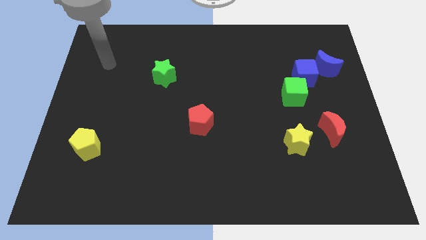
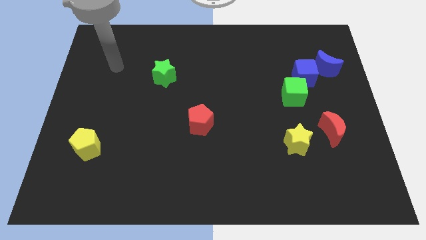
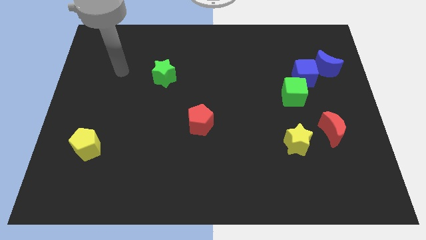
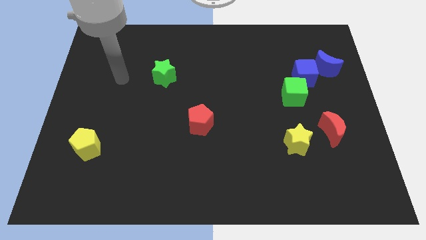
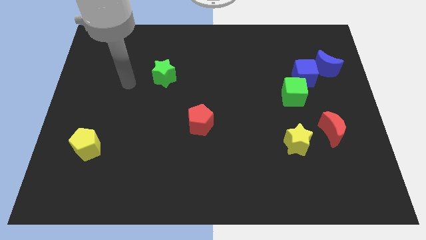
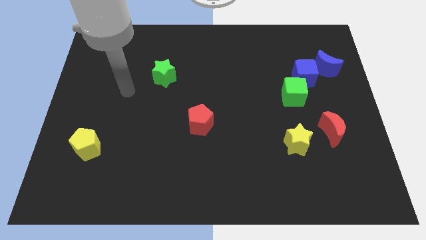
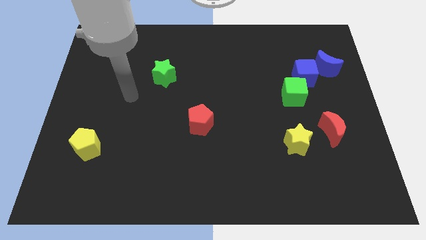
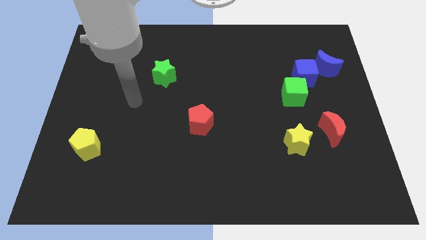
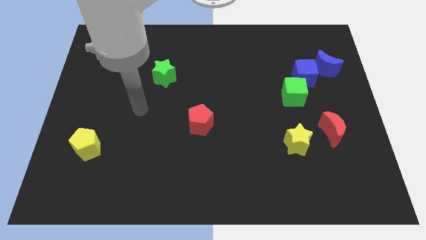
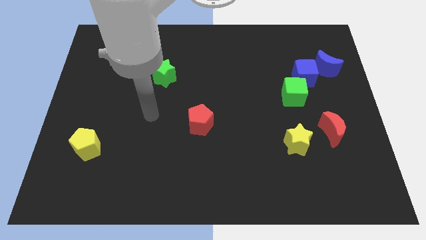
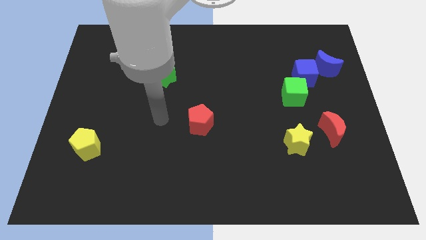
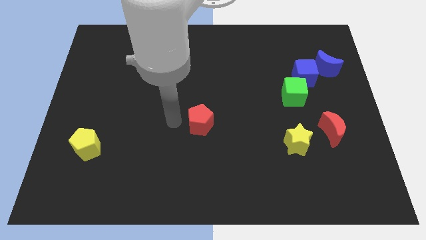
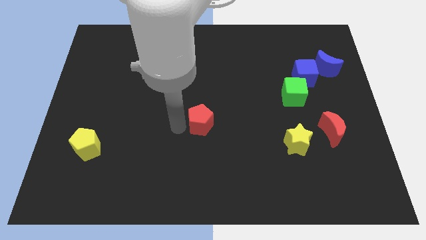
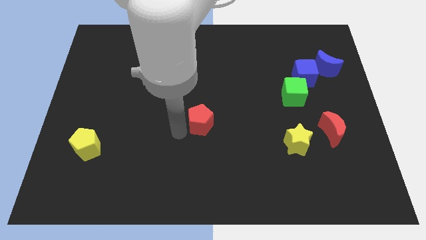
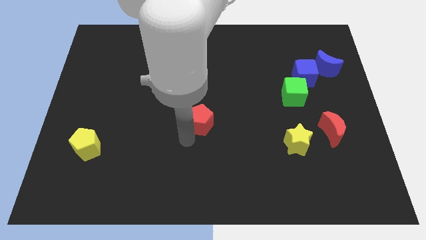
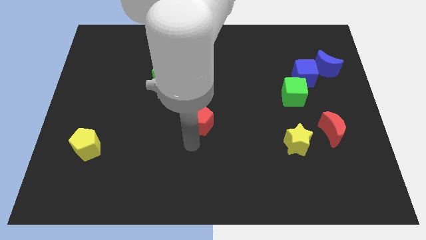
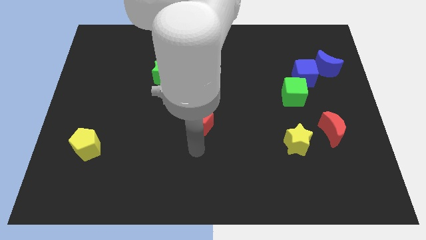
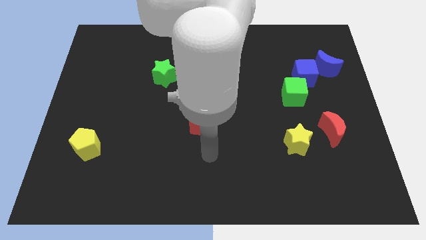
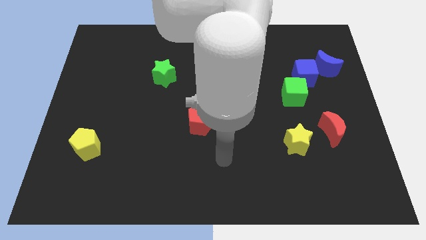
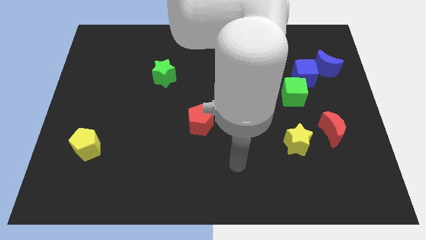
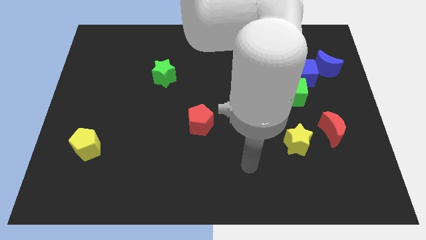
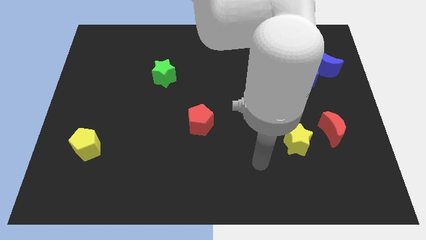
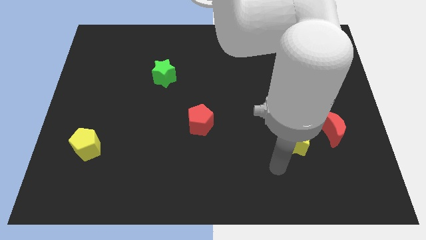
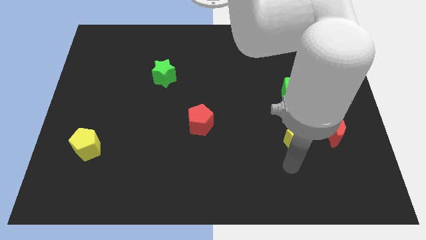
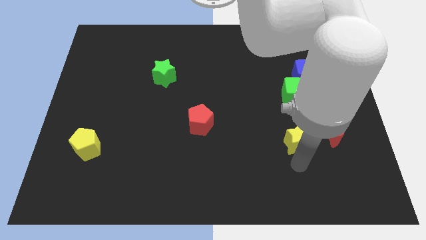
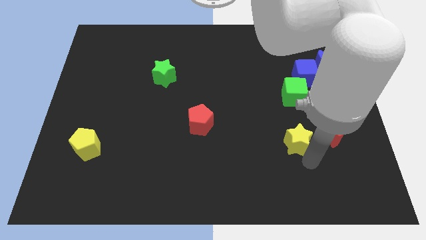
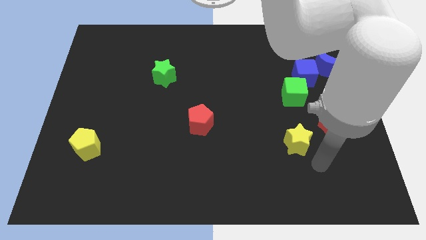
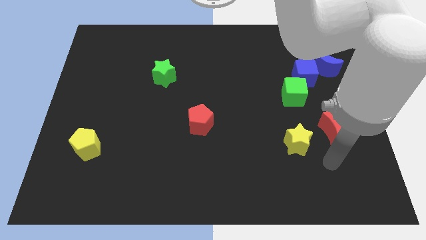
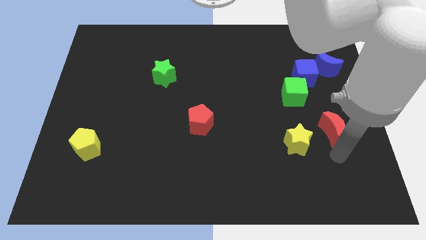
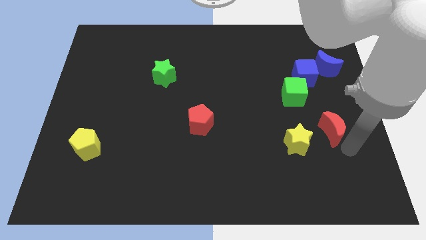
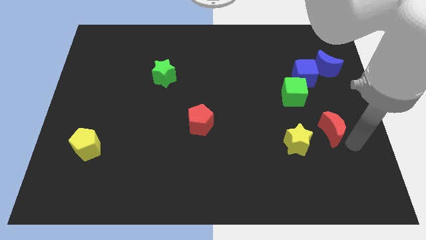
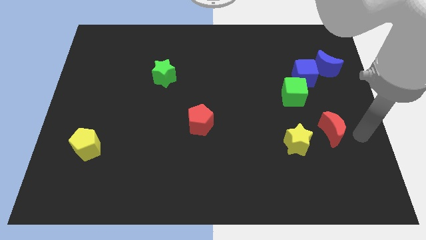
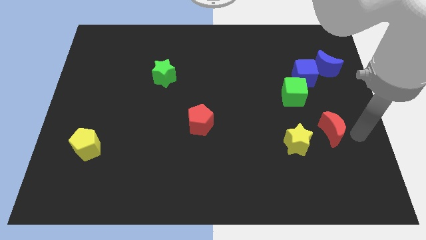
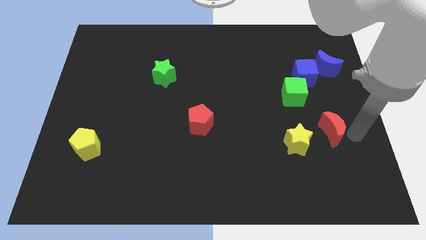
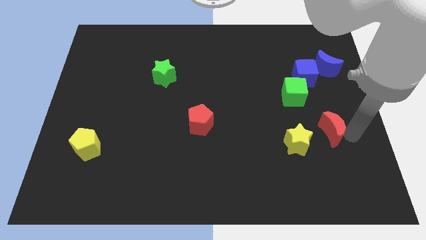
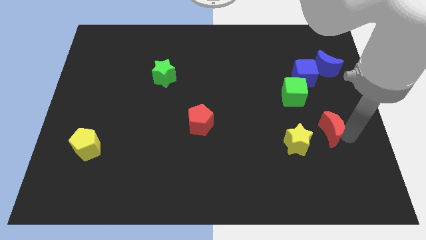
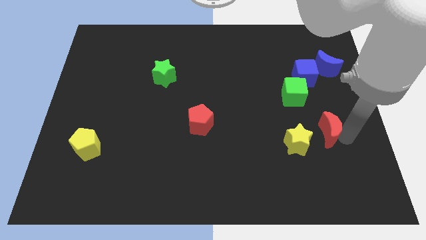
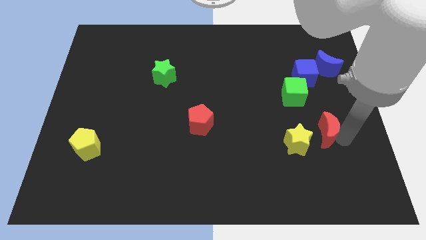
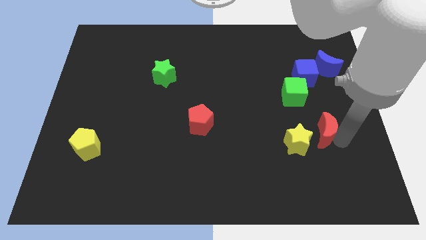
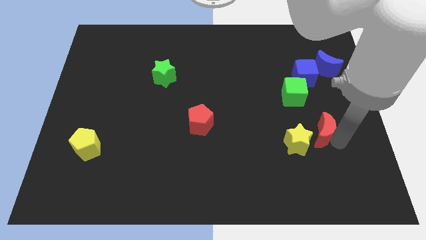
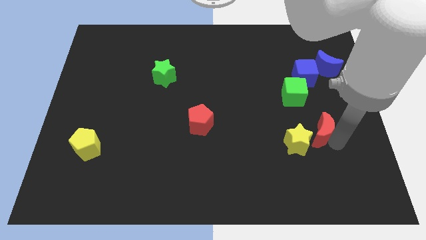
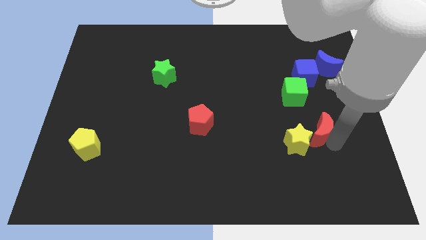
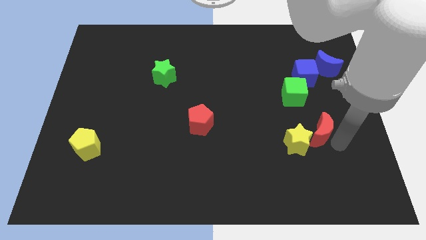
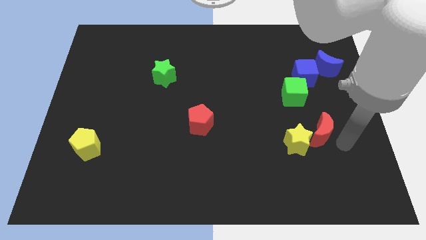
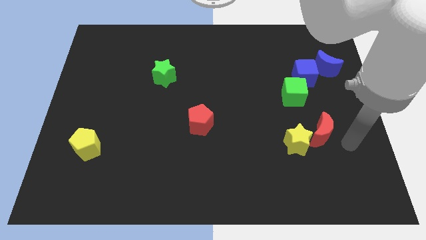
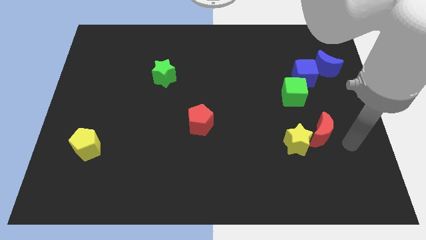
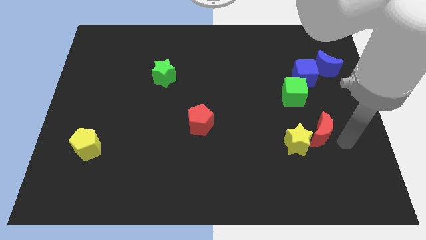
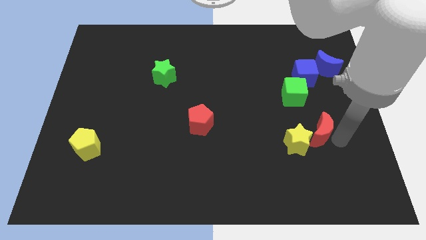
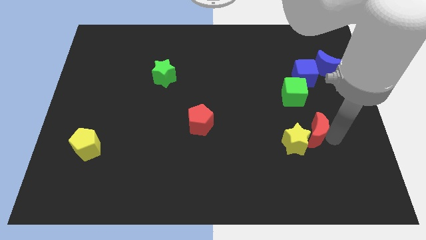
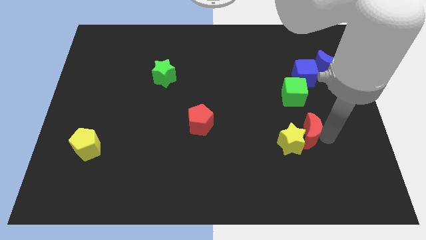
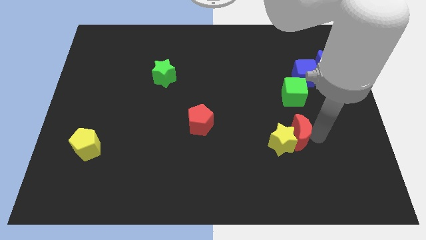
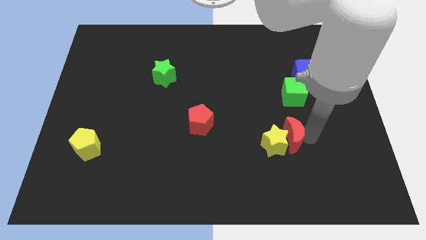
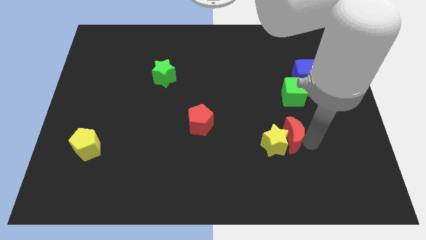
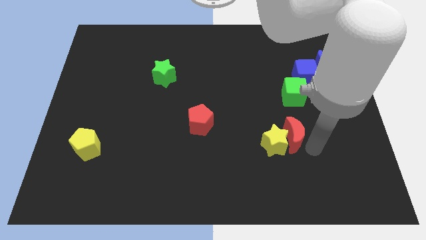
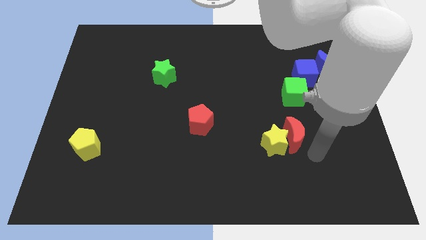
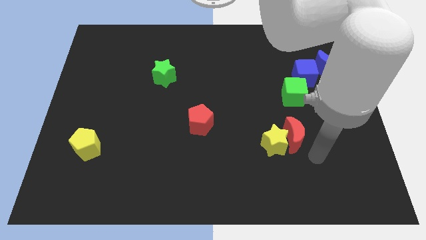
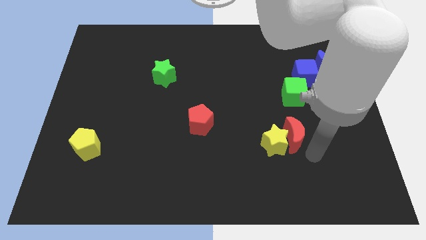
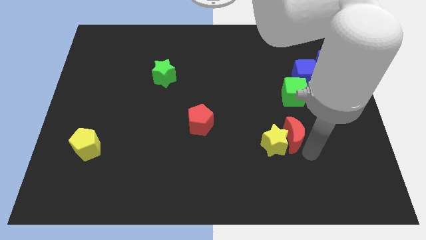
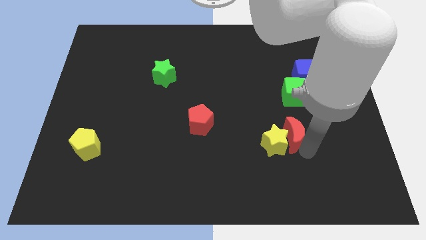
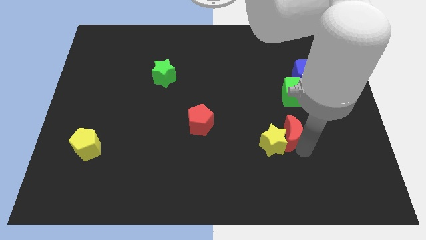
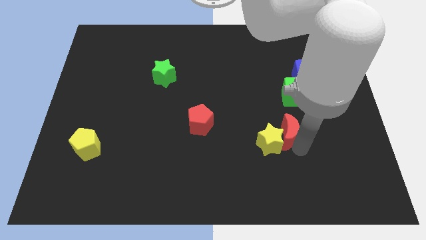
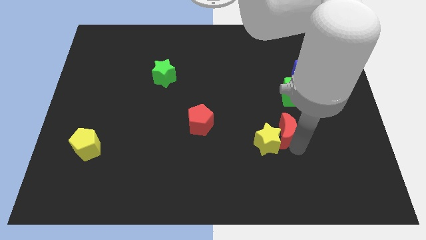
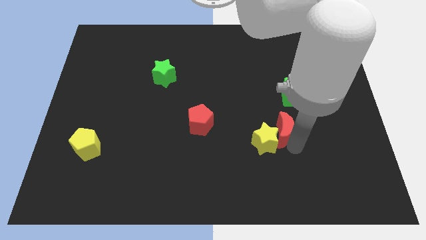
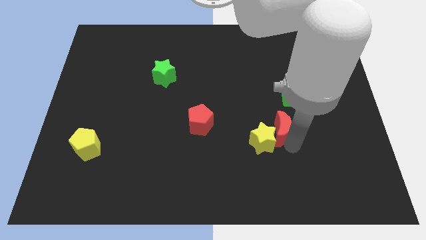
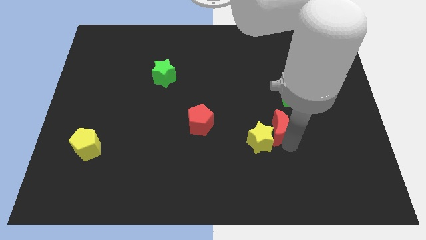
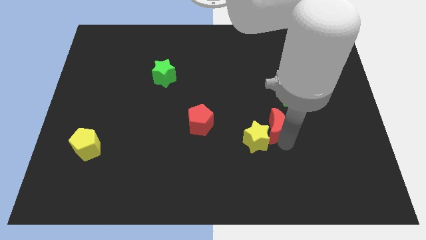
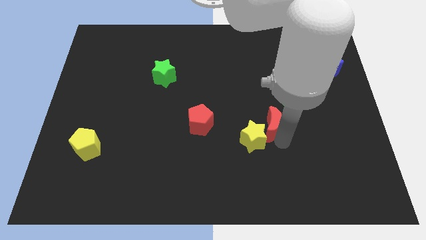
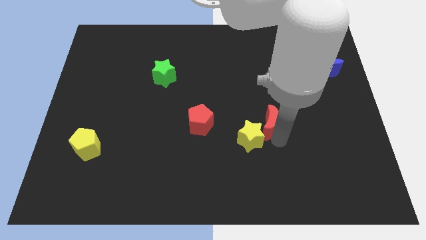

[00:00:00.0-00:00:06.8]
slide the red moon just right of the red pentagon

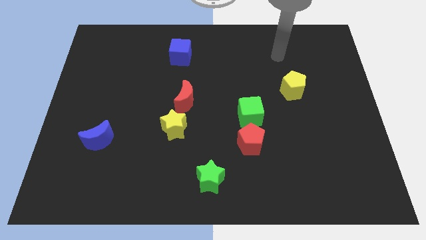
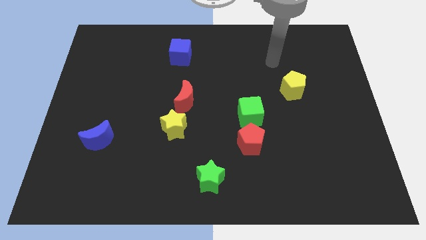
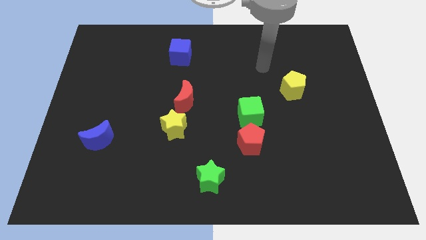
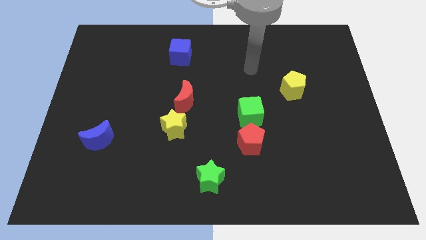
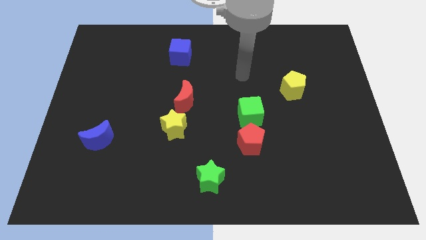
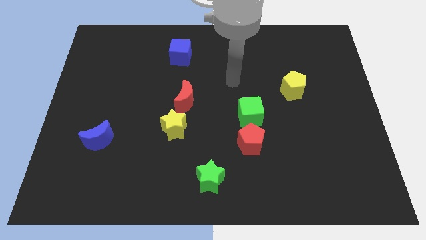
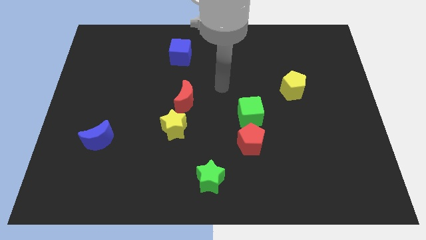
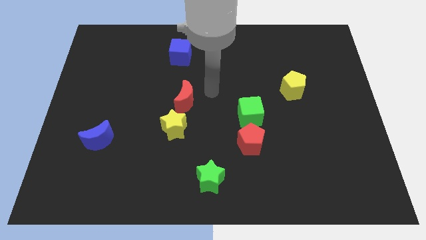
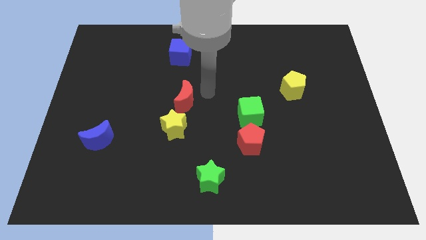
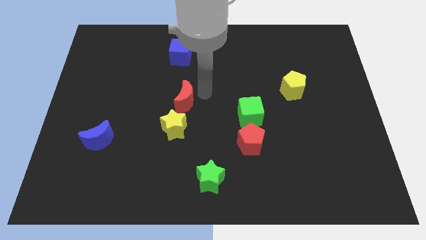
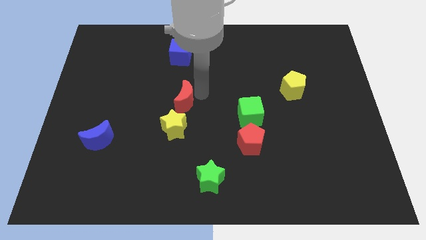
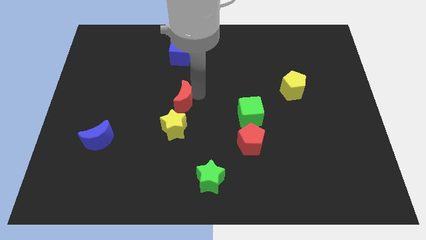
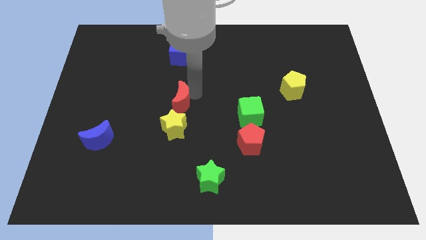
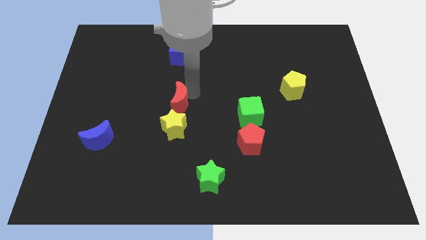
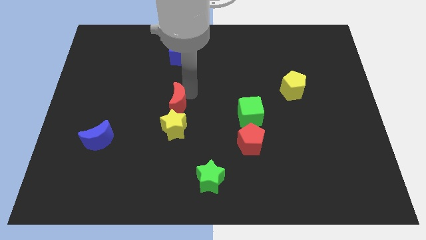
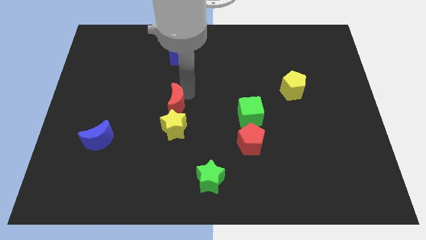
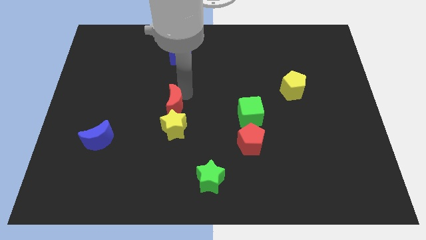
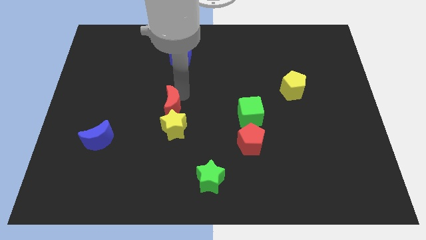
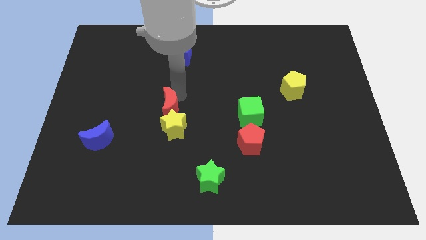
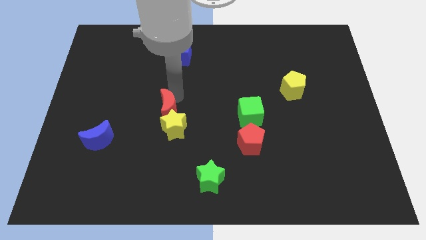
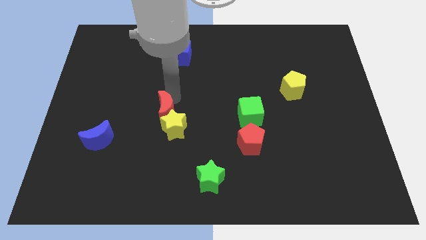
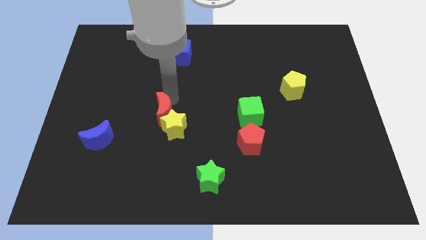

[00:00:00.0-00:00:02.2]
push the red moon left of the yellow star
